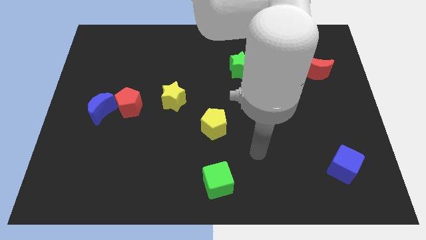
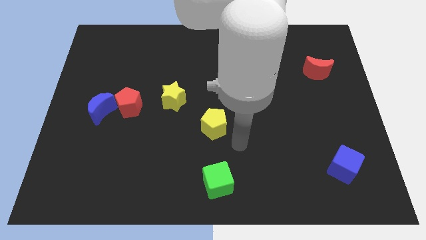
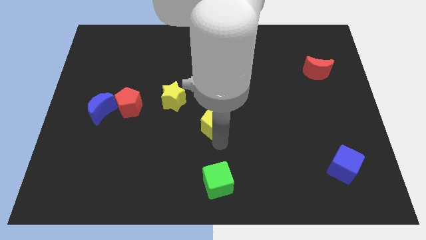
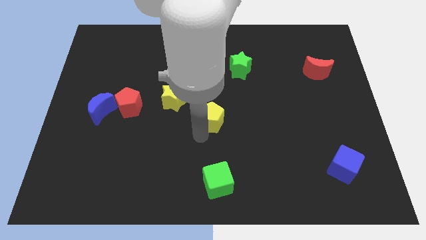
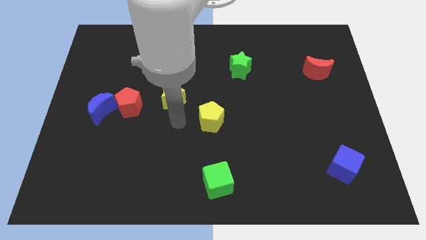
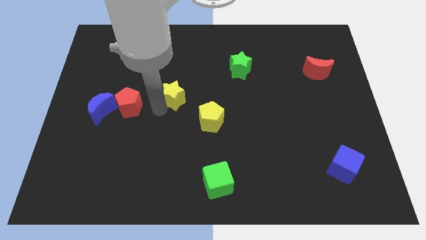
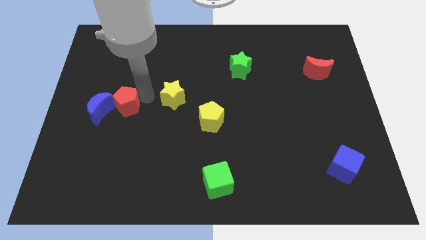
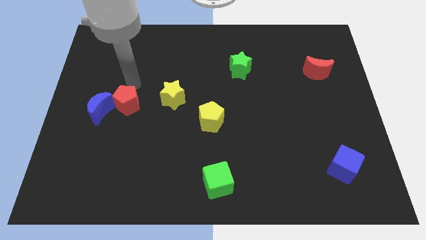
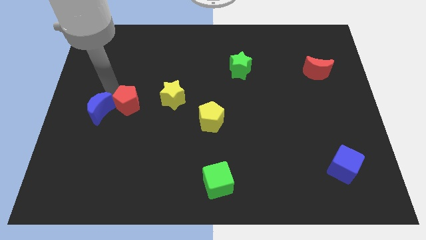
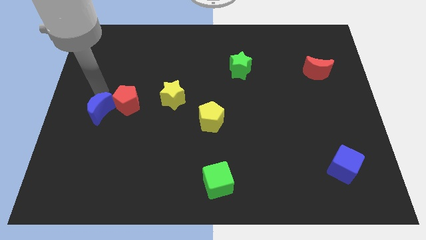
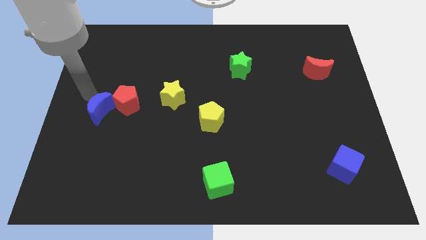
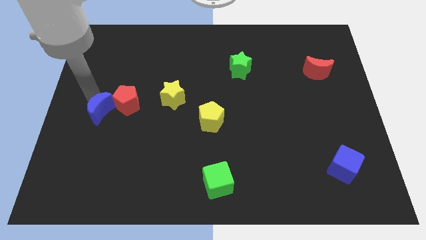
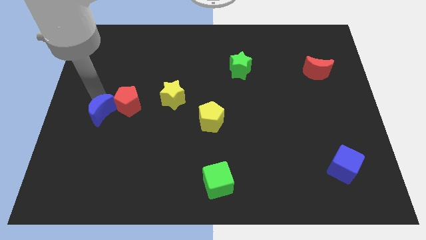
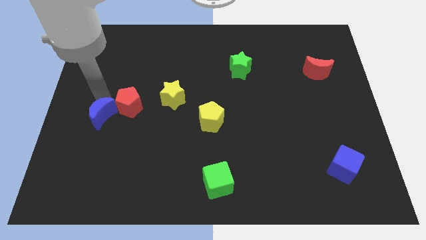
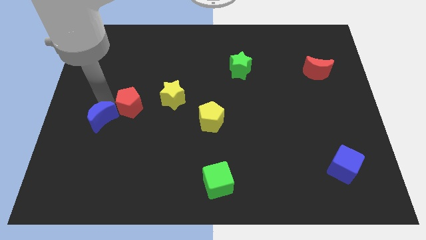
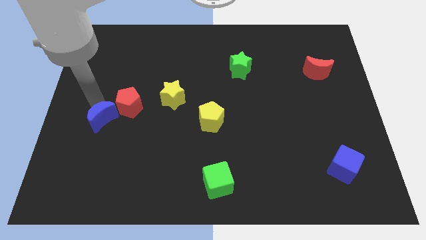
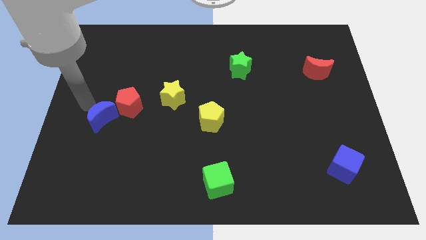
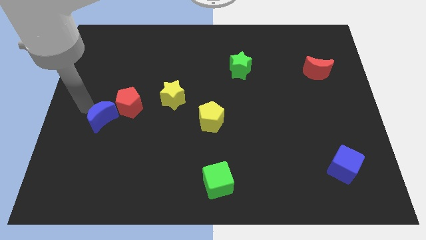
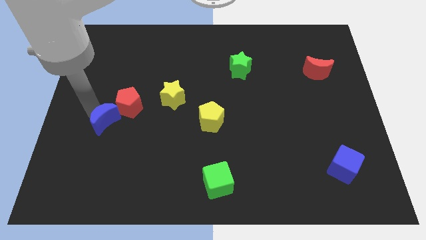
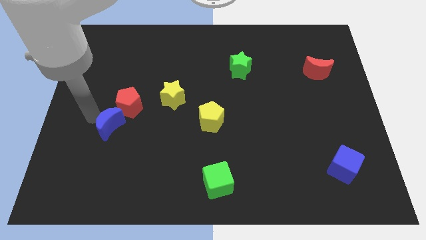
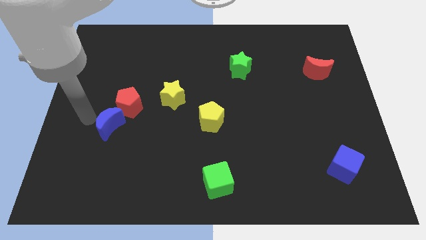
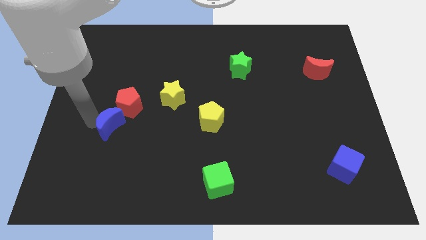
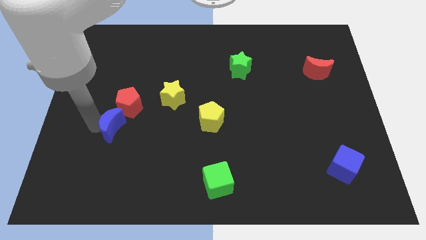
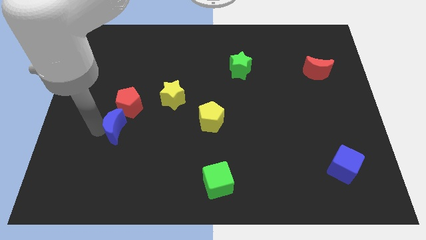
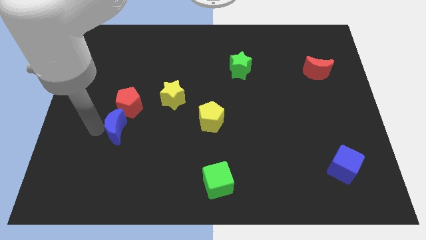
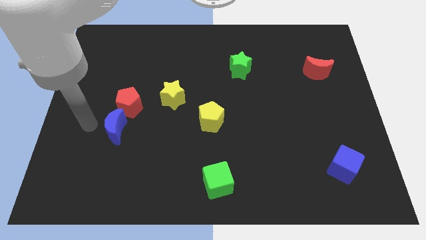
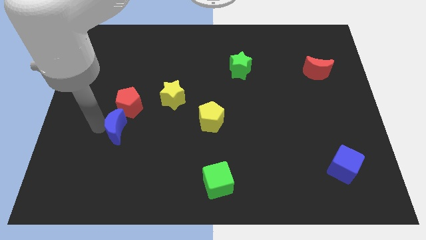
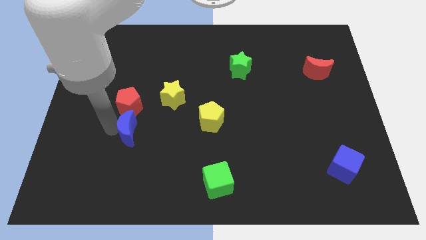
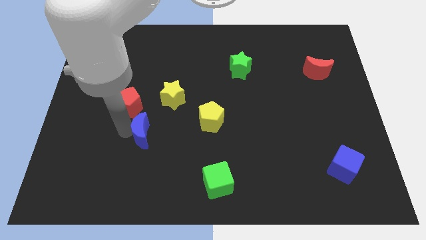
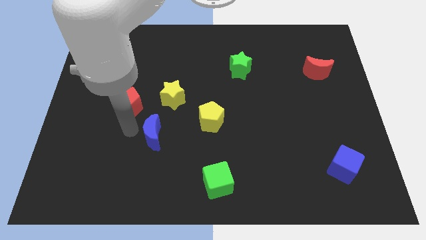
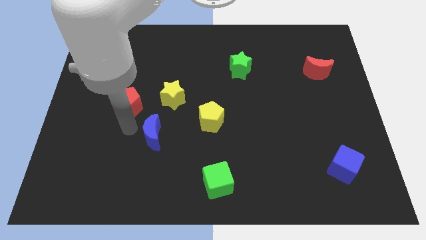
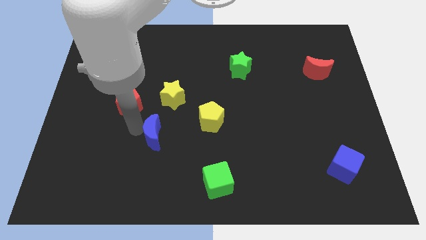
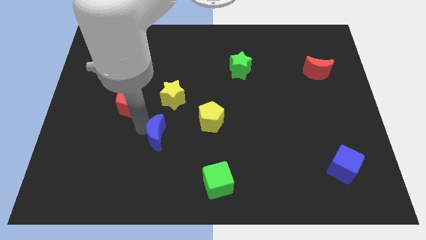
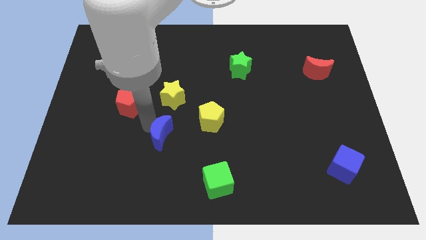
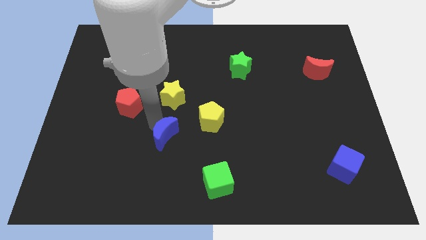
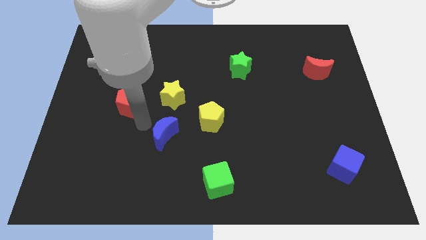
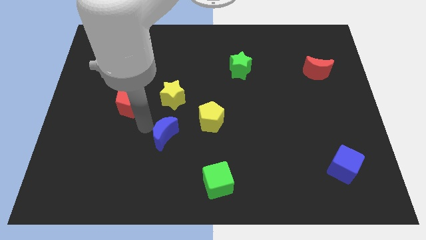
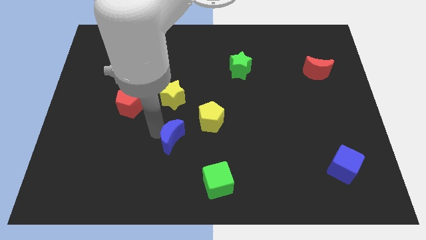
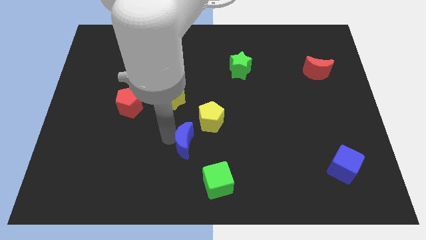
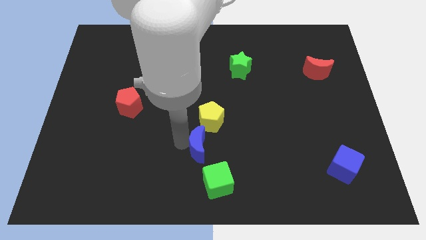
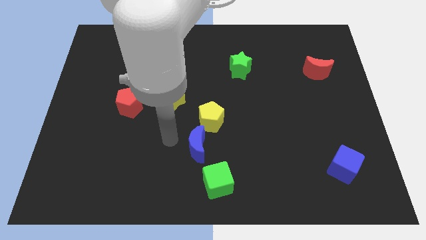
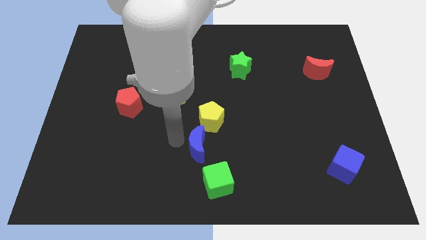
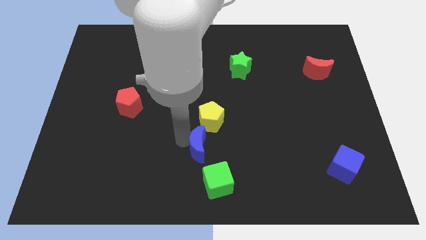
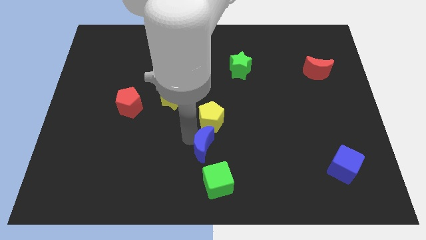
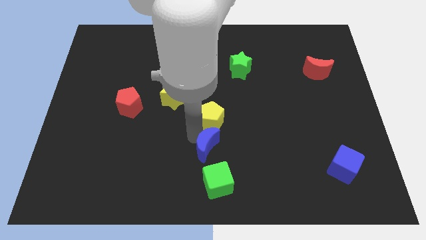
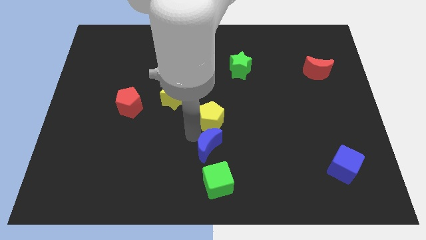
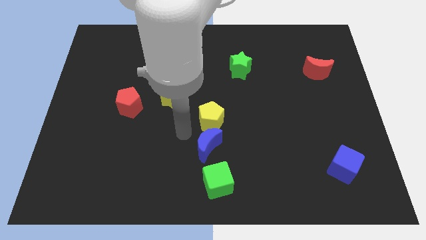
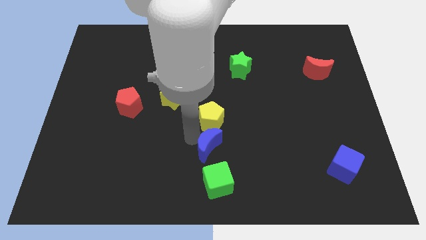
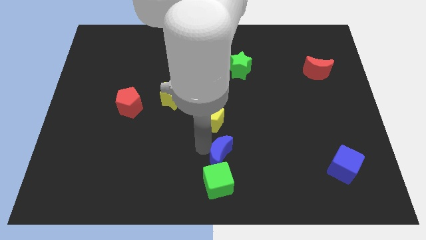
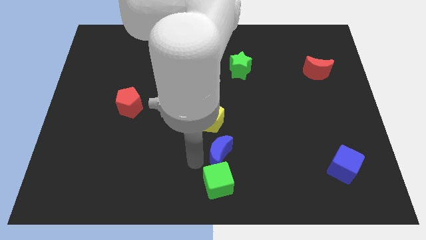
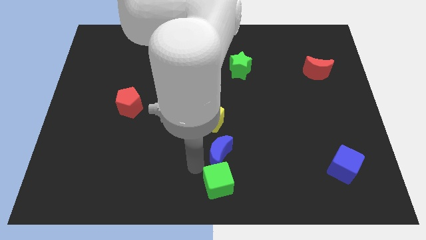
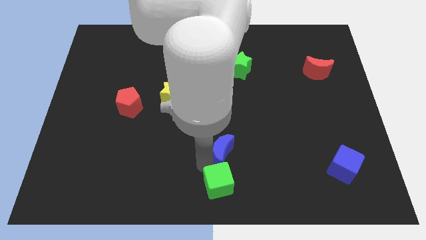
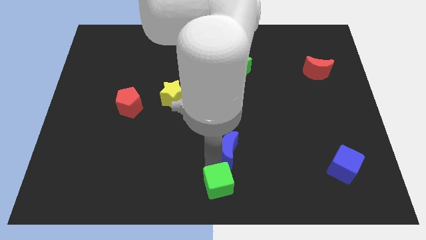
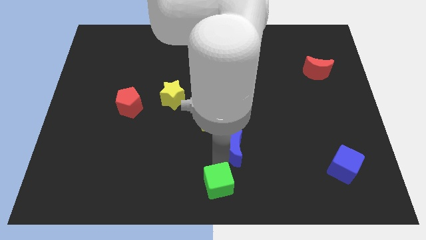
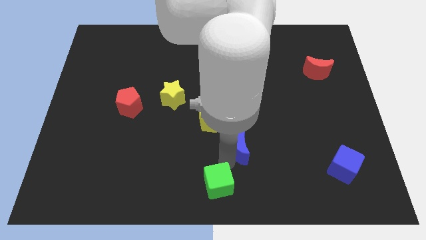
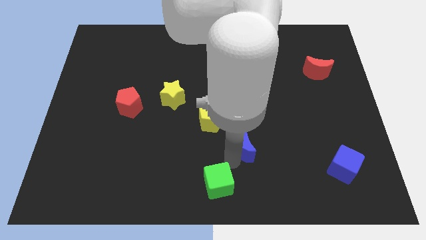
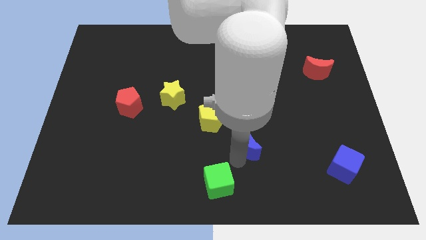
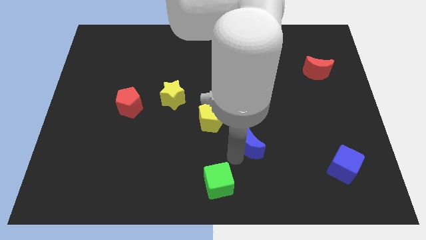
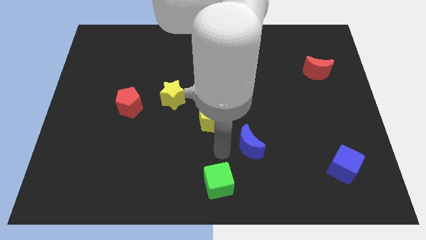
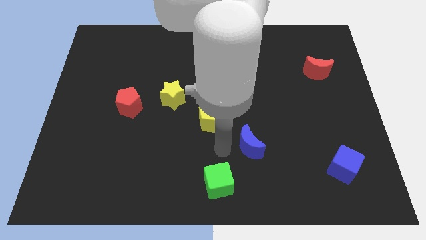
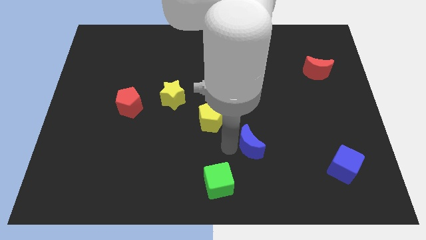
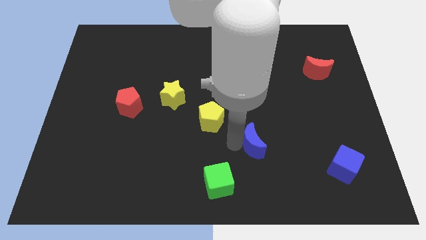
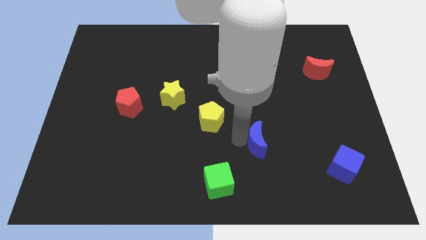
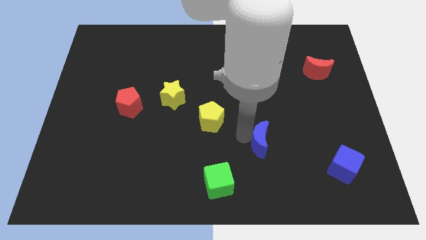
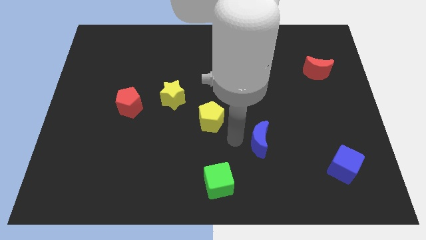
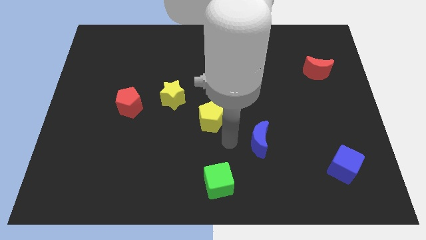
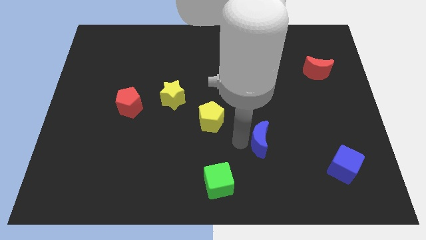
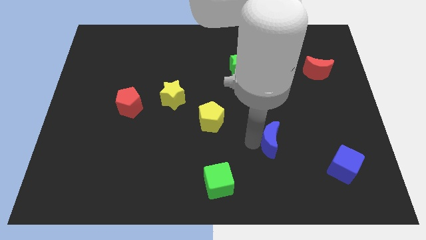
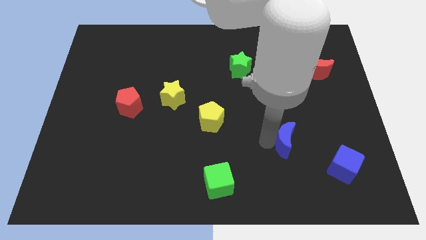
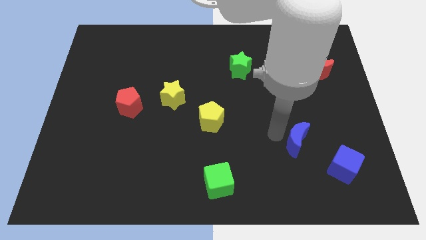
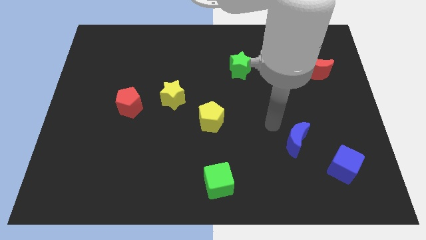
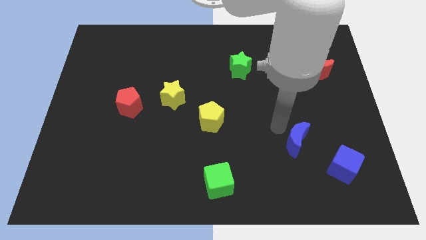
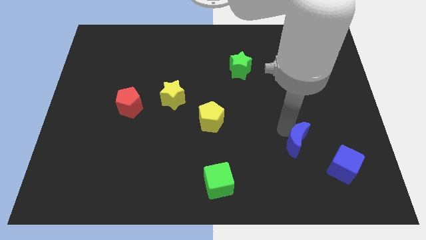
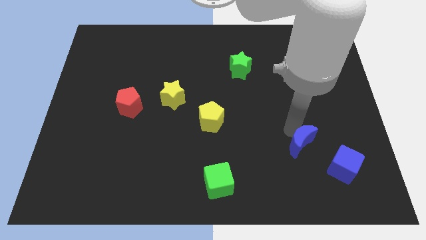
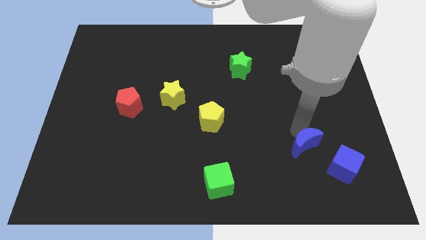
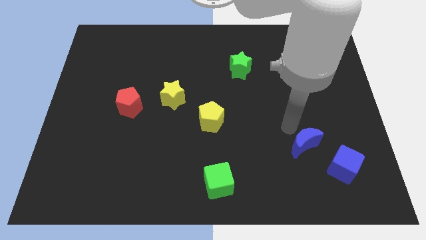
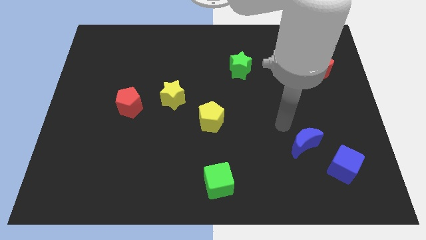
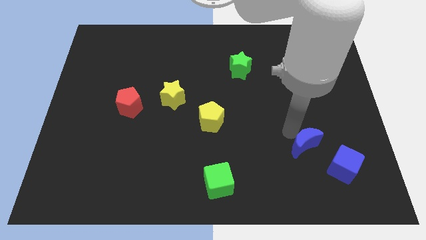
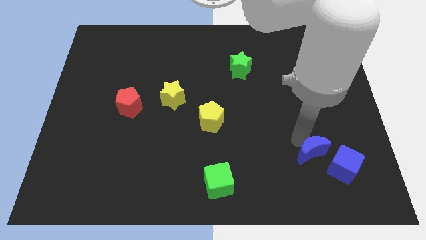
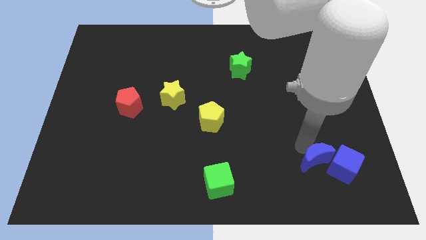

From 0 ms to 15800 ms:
move the blue moon towards the blue cube
